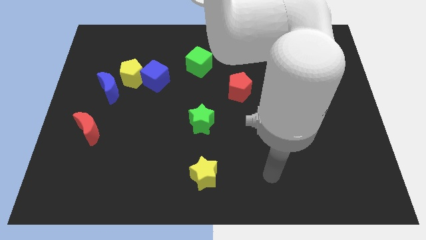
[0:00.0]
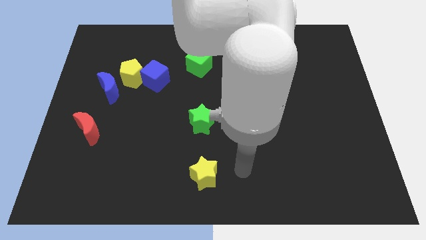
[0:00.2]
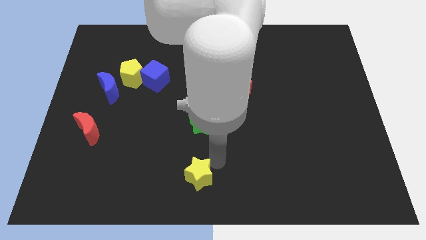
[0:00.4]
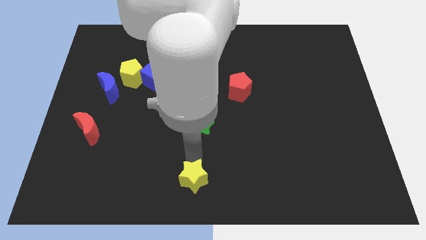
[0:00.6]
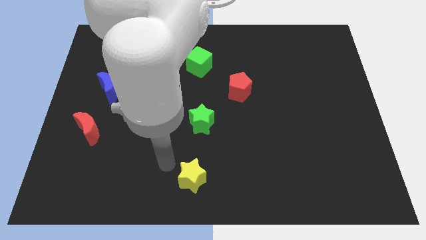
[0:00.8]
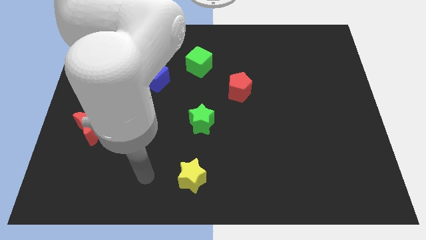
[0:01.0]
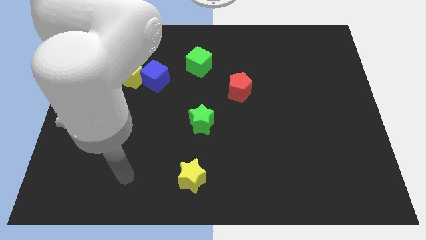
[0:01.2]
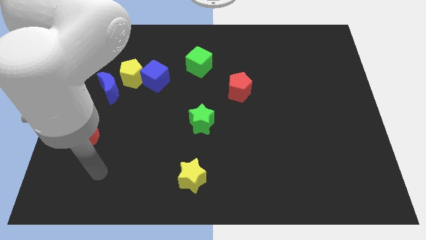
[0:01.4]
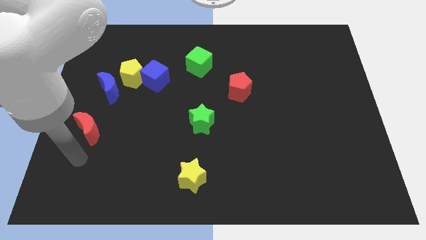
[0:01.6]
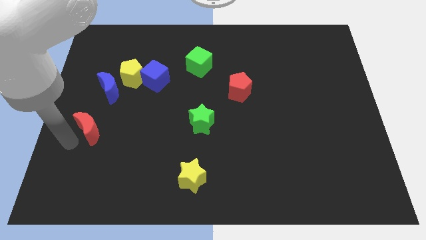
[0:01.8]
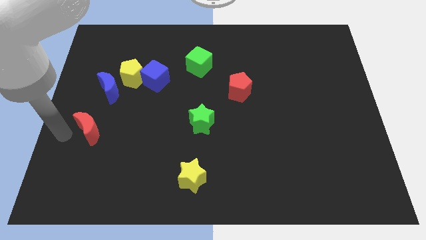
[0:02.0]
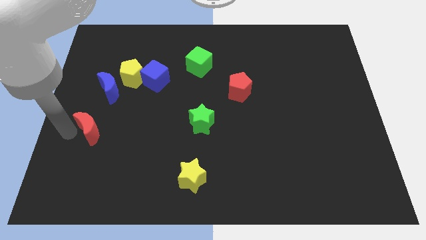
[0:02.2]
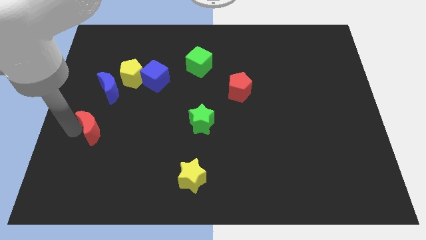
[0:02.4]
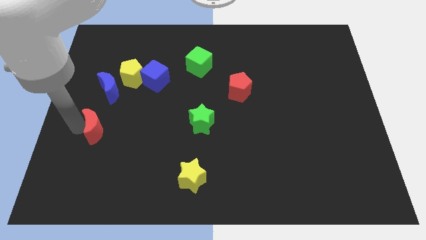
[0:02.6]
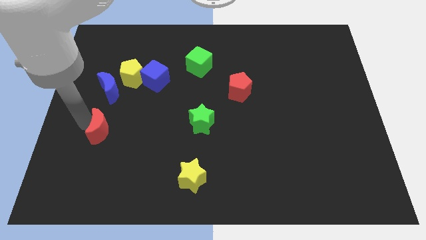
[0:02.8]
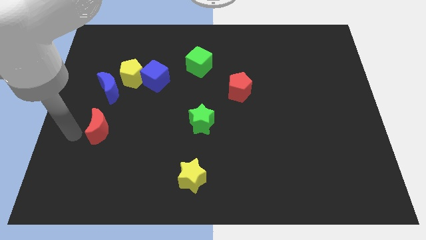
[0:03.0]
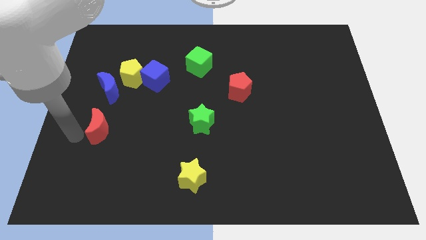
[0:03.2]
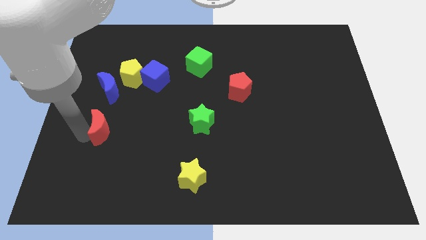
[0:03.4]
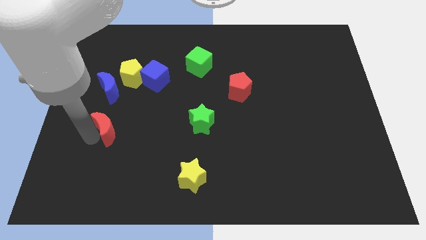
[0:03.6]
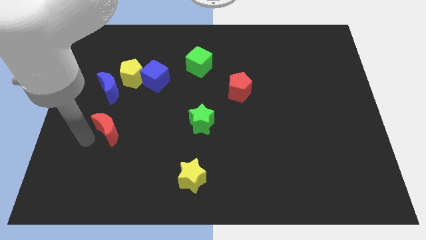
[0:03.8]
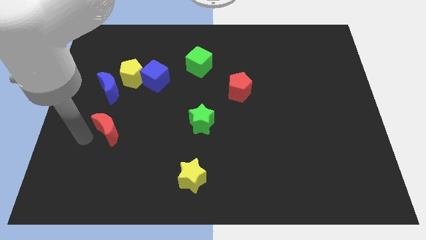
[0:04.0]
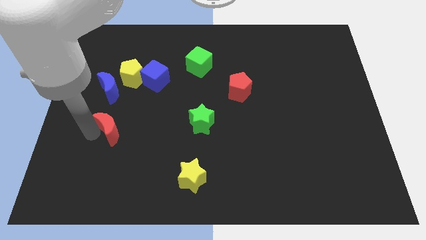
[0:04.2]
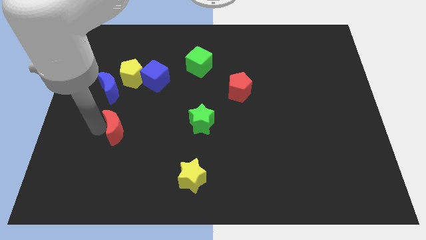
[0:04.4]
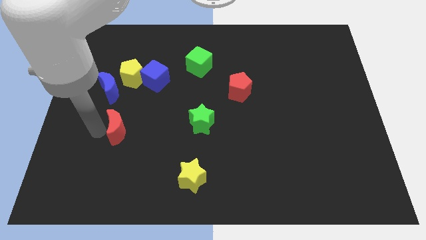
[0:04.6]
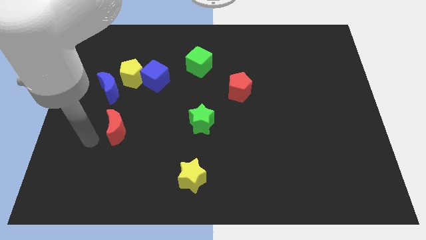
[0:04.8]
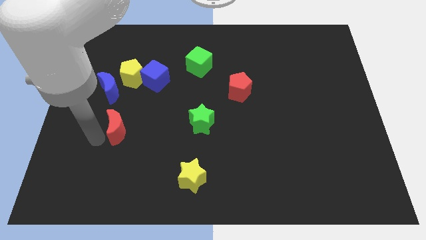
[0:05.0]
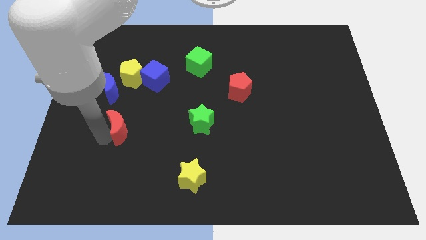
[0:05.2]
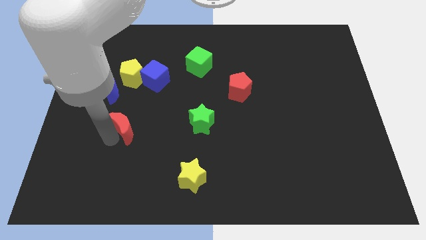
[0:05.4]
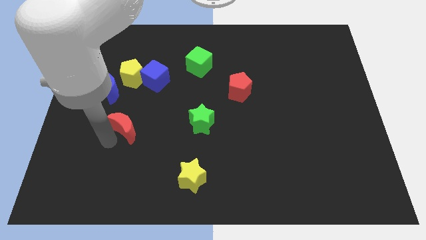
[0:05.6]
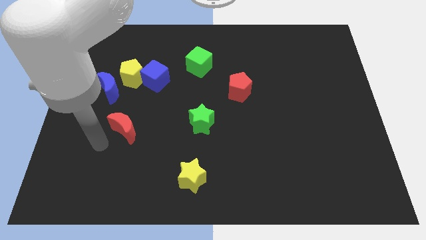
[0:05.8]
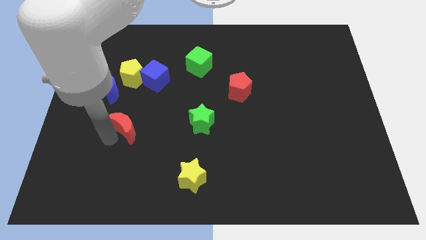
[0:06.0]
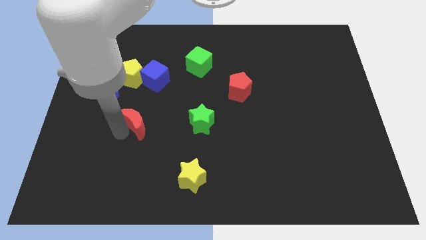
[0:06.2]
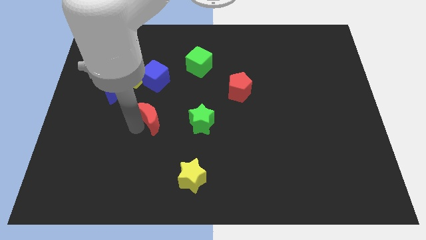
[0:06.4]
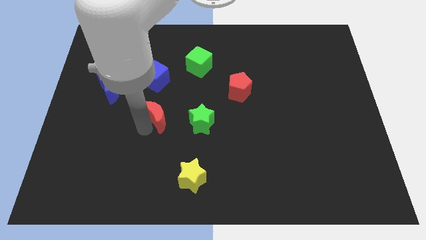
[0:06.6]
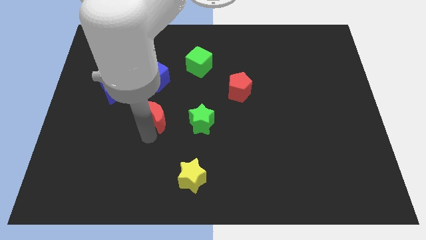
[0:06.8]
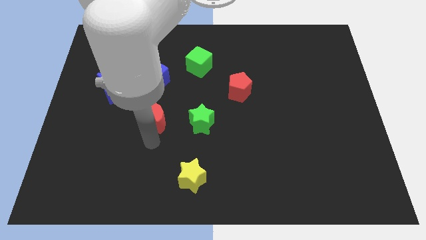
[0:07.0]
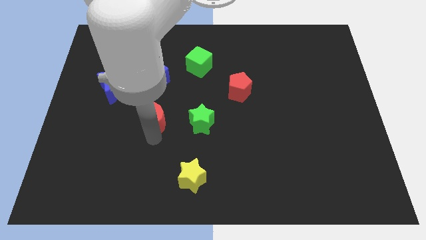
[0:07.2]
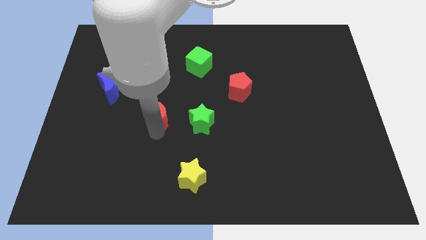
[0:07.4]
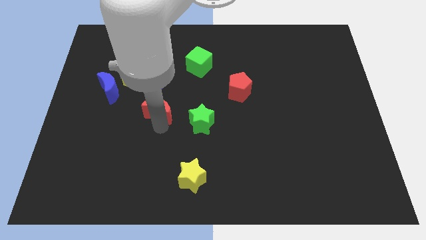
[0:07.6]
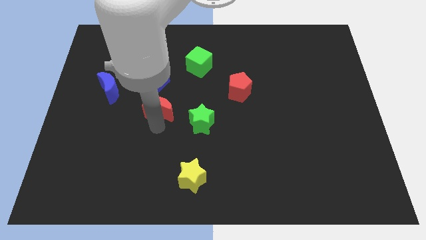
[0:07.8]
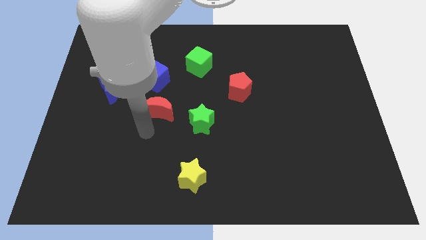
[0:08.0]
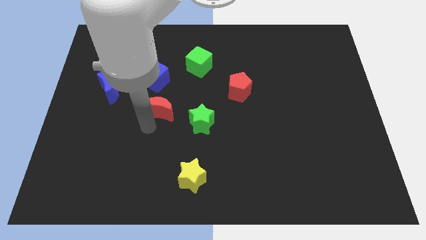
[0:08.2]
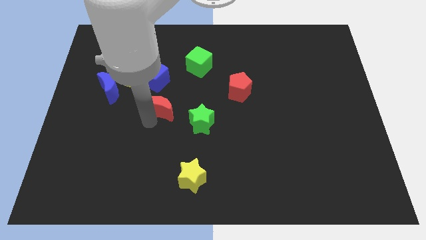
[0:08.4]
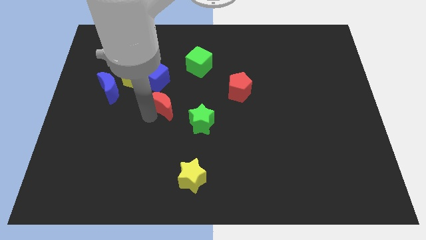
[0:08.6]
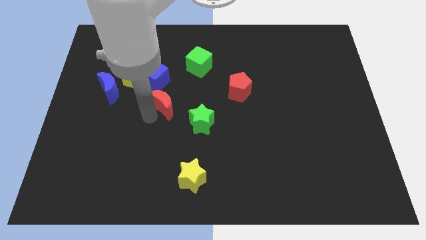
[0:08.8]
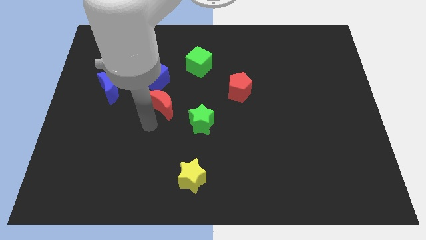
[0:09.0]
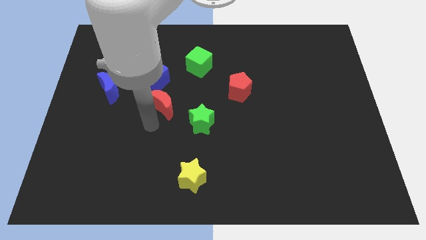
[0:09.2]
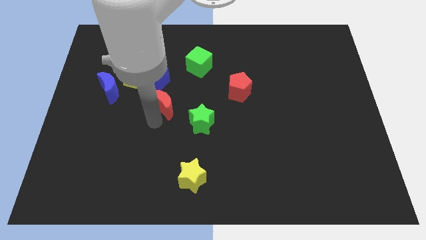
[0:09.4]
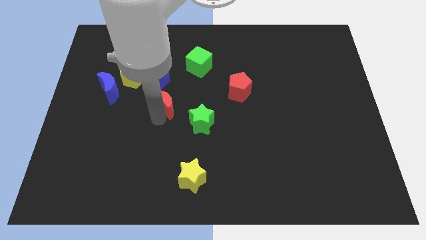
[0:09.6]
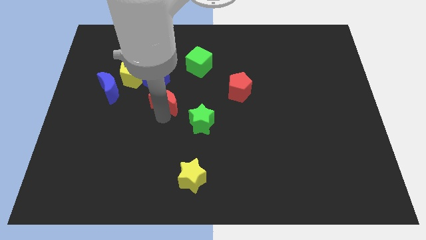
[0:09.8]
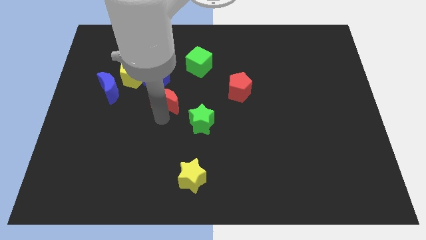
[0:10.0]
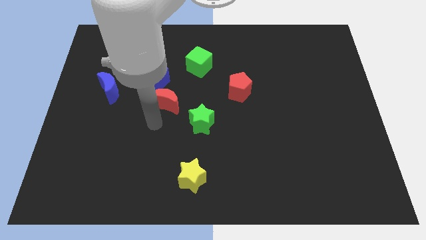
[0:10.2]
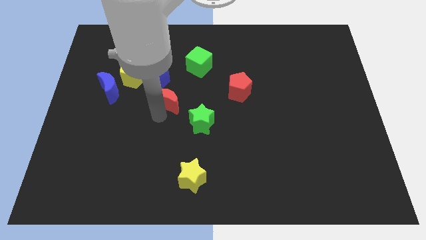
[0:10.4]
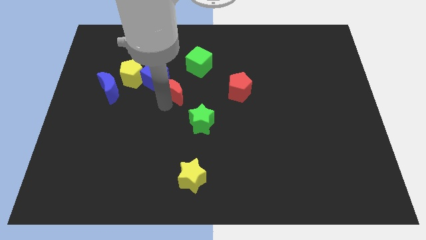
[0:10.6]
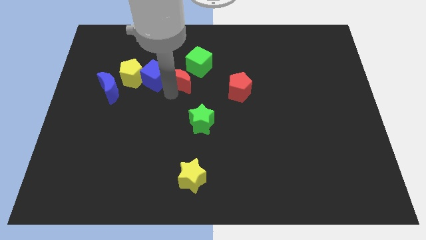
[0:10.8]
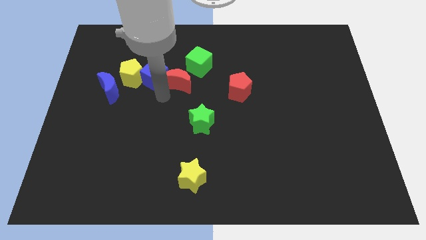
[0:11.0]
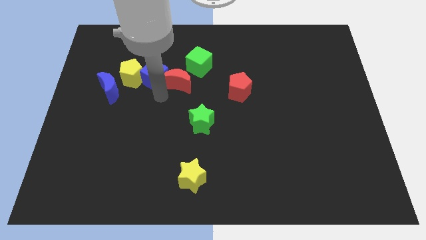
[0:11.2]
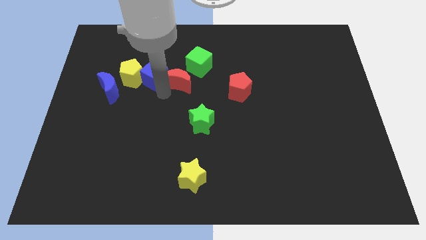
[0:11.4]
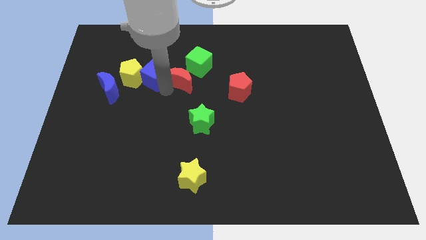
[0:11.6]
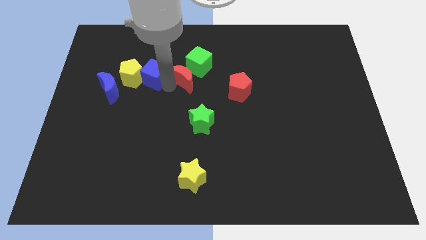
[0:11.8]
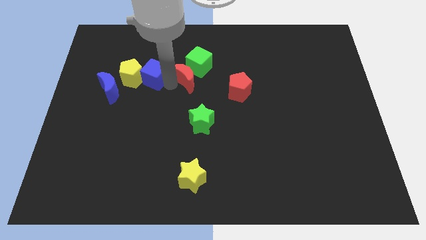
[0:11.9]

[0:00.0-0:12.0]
move the red moon to the green cube

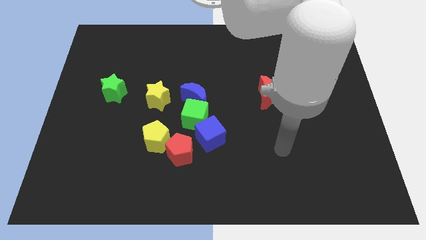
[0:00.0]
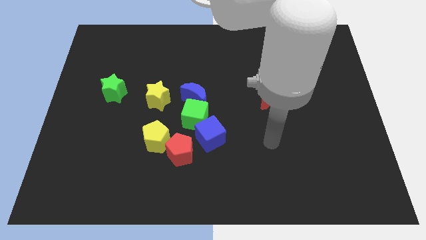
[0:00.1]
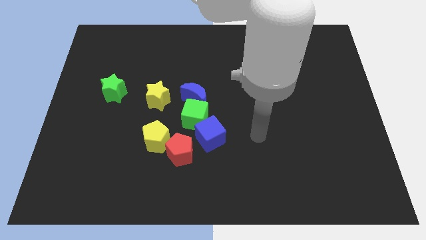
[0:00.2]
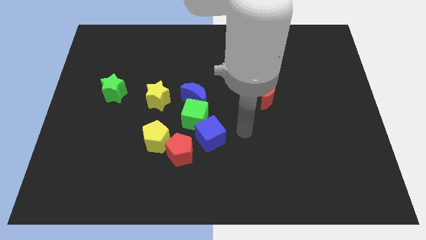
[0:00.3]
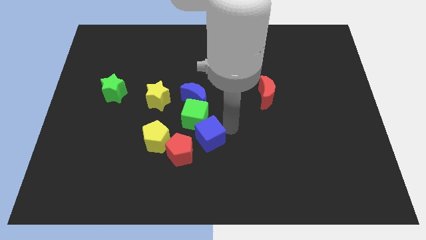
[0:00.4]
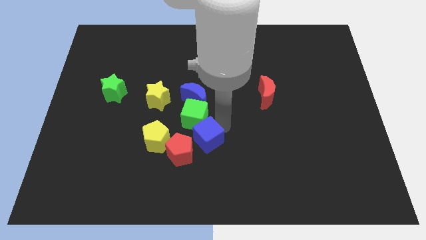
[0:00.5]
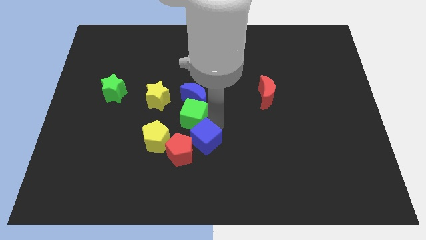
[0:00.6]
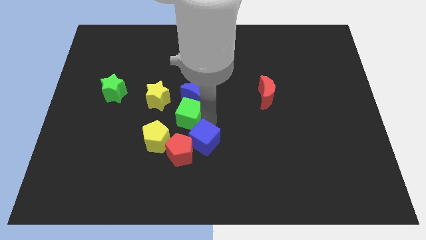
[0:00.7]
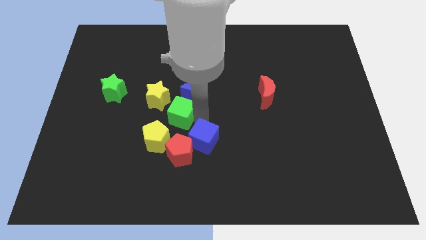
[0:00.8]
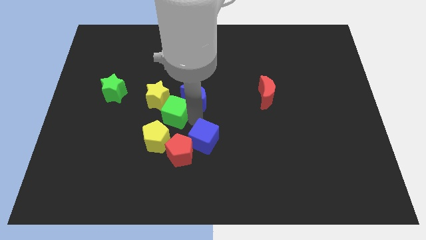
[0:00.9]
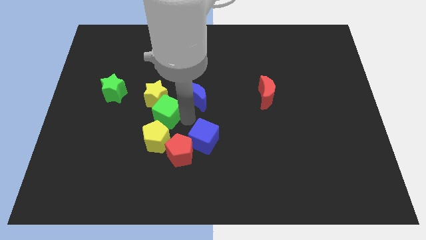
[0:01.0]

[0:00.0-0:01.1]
push the green cube to the yellow star

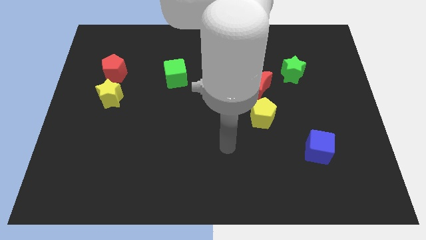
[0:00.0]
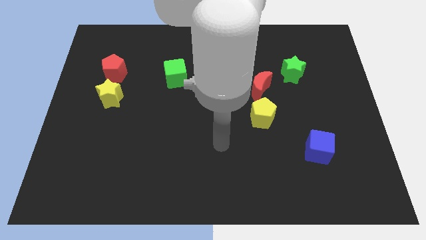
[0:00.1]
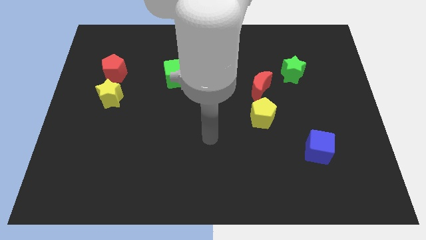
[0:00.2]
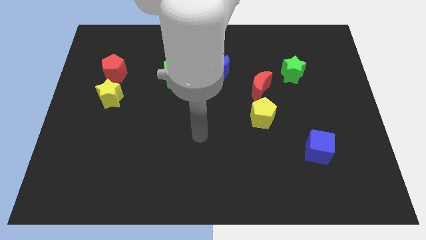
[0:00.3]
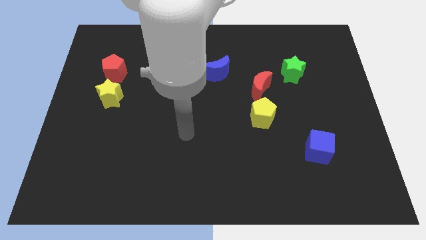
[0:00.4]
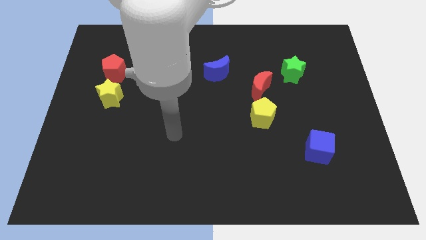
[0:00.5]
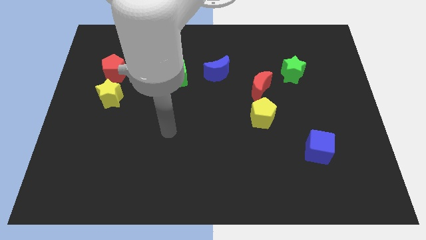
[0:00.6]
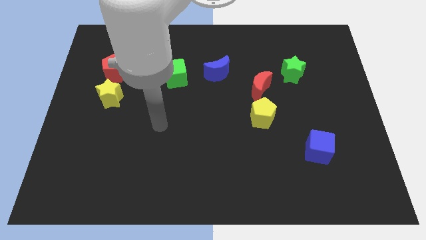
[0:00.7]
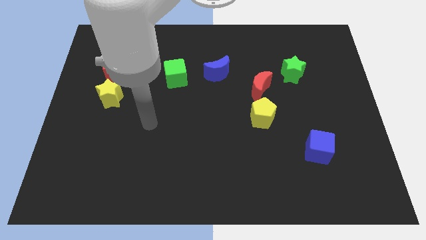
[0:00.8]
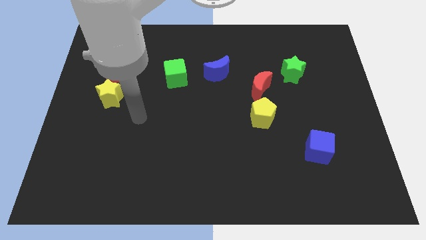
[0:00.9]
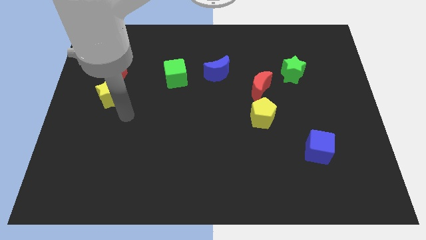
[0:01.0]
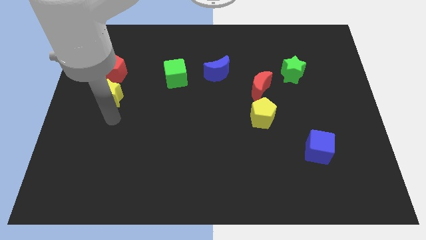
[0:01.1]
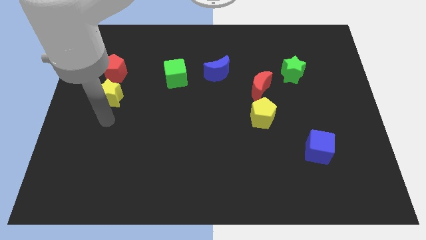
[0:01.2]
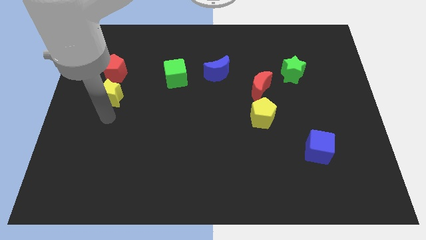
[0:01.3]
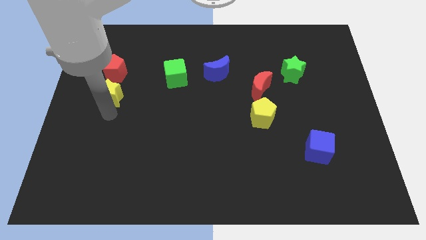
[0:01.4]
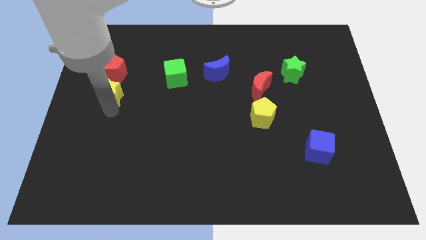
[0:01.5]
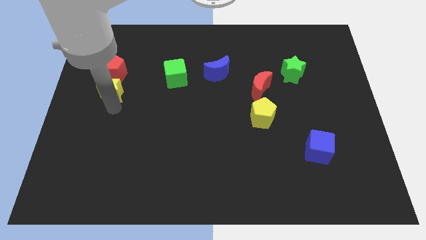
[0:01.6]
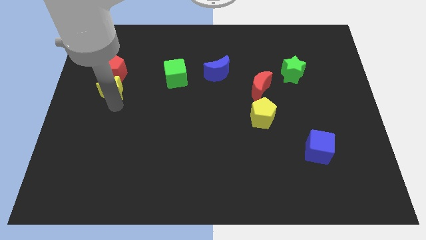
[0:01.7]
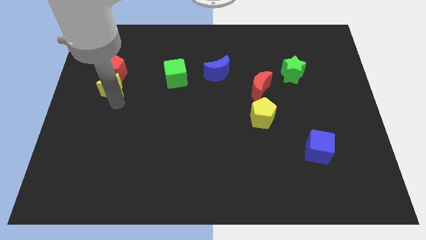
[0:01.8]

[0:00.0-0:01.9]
slide the yellow star towards the red pentagon
